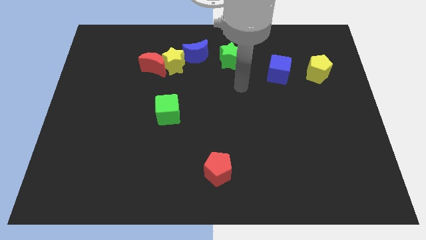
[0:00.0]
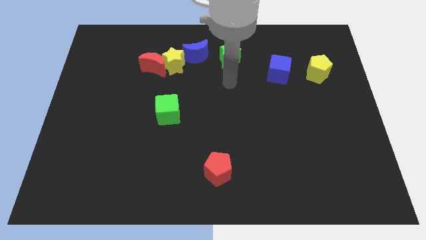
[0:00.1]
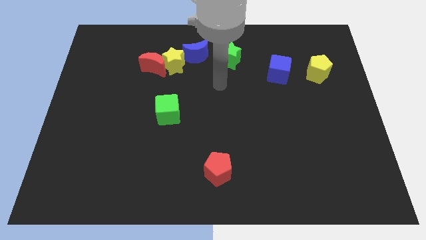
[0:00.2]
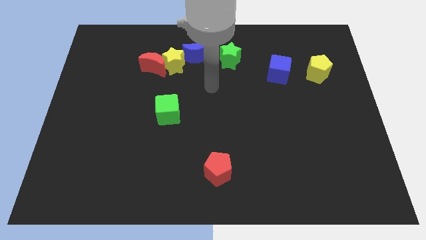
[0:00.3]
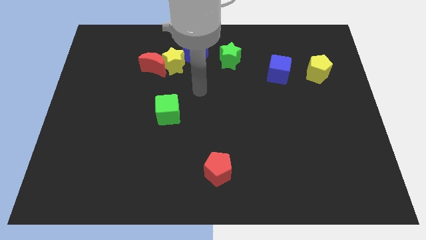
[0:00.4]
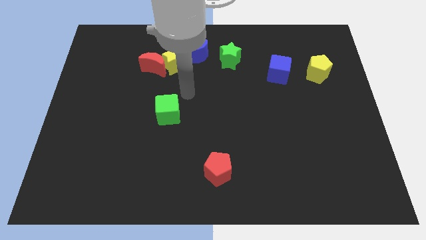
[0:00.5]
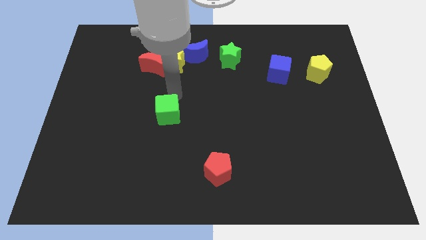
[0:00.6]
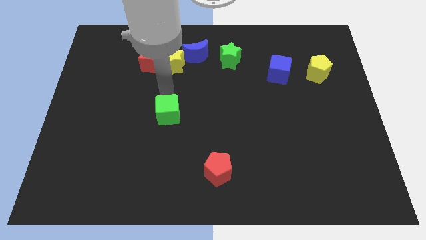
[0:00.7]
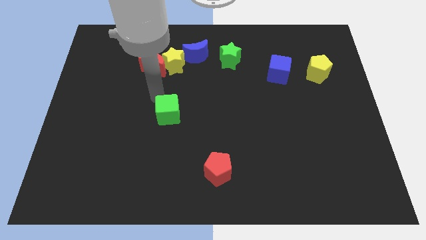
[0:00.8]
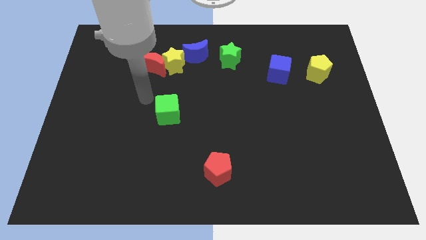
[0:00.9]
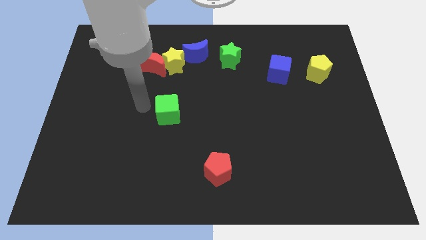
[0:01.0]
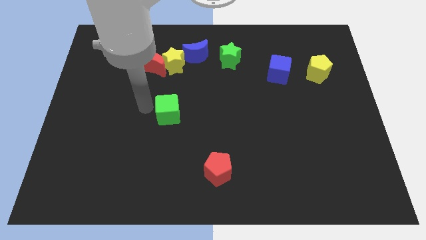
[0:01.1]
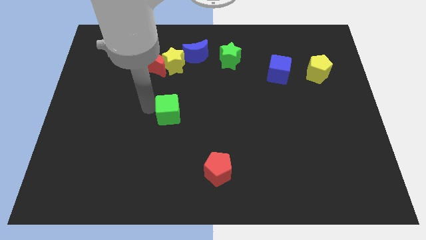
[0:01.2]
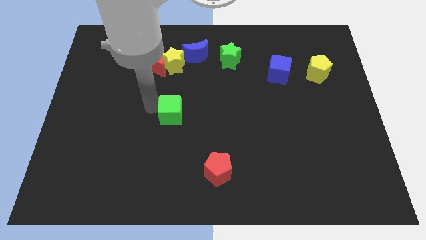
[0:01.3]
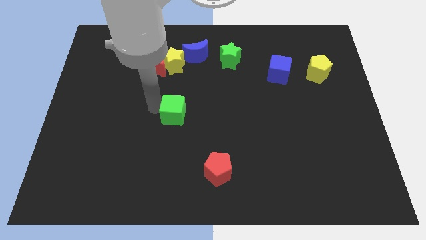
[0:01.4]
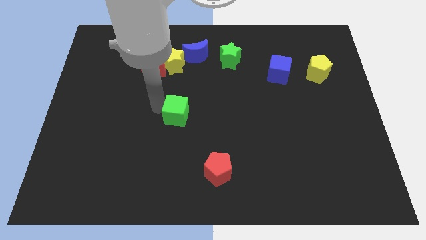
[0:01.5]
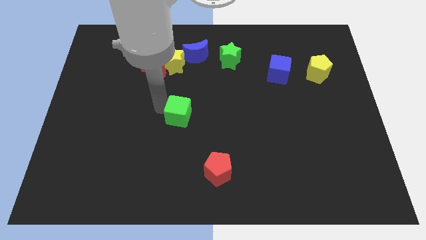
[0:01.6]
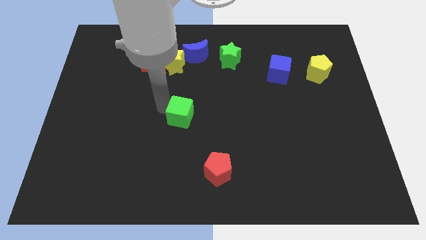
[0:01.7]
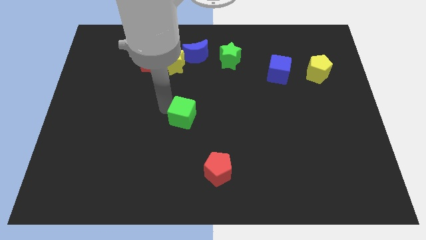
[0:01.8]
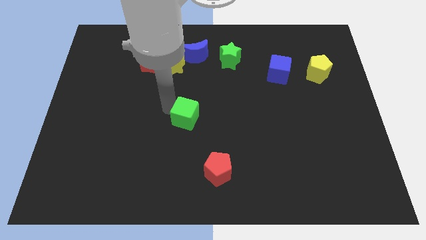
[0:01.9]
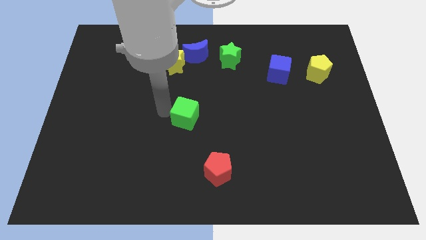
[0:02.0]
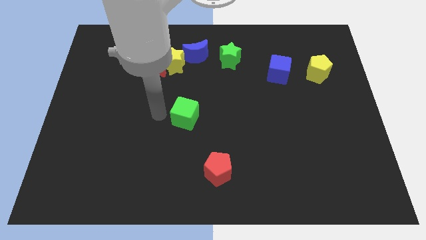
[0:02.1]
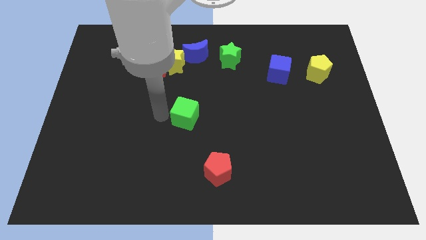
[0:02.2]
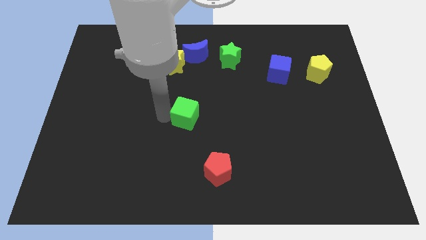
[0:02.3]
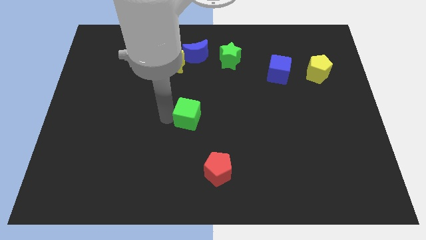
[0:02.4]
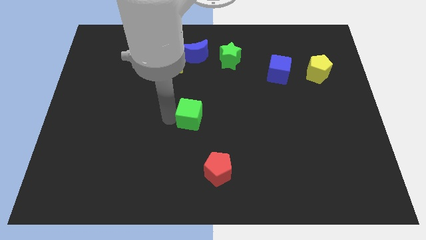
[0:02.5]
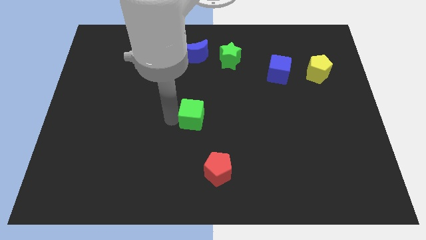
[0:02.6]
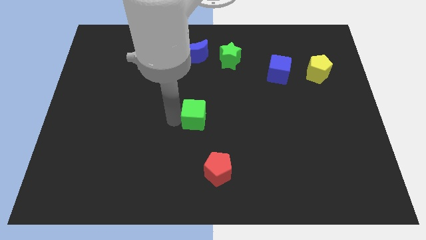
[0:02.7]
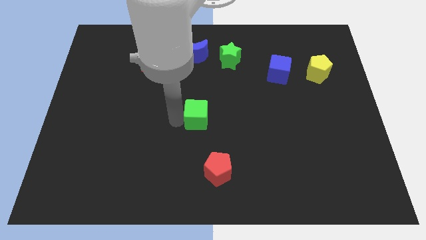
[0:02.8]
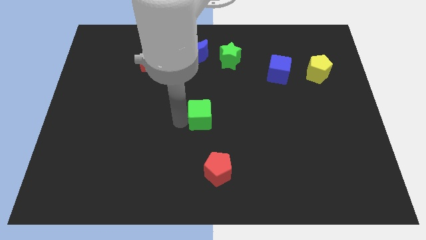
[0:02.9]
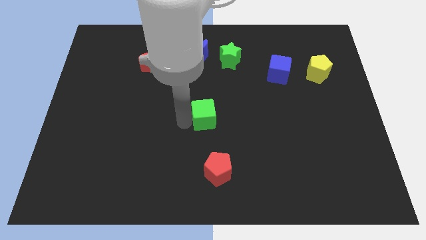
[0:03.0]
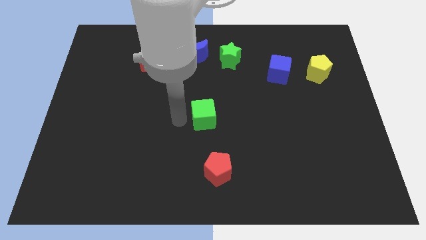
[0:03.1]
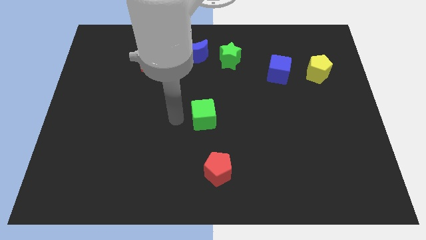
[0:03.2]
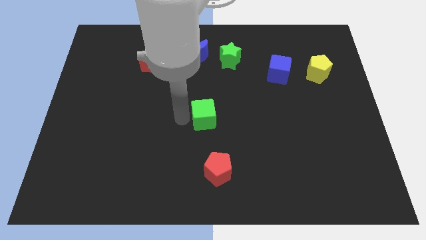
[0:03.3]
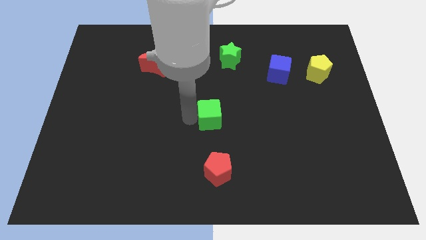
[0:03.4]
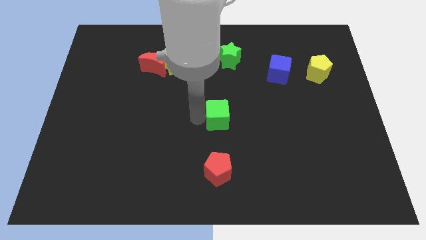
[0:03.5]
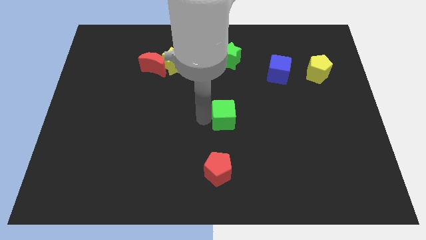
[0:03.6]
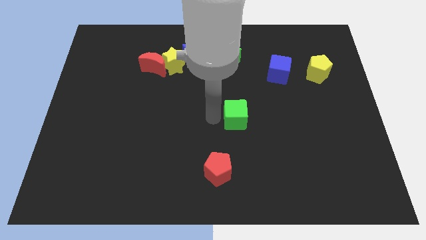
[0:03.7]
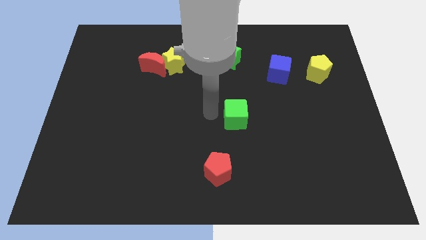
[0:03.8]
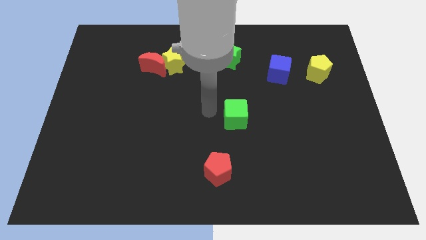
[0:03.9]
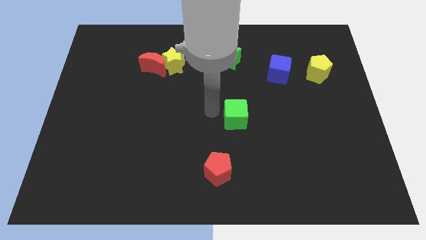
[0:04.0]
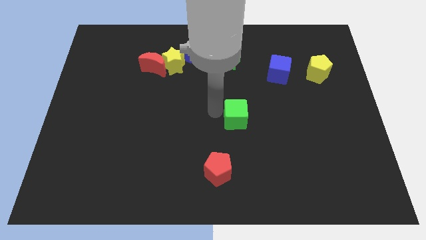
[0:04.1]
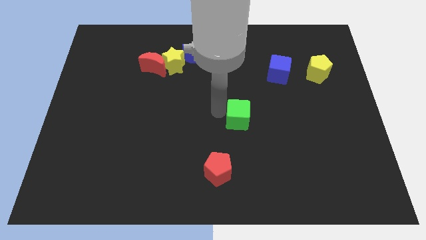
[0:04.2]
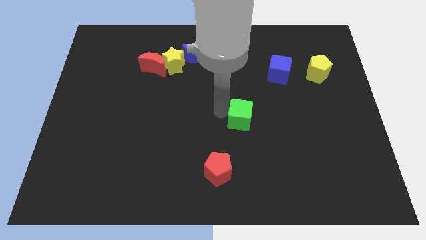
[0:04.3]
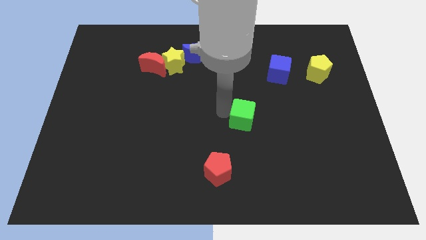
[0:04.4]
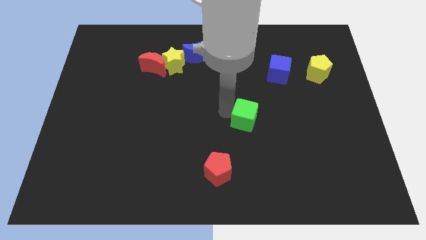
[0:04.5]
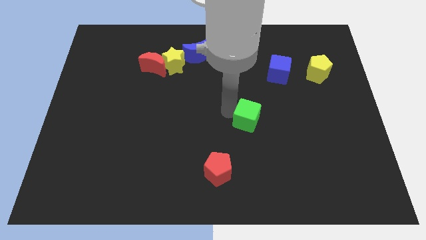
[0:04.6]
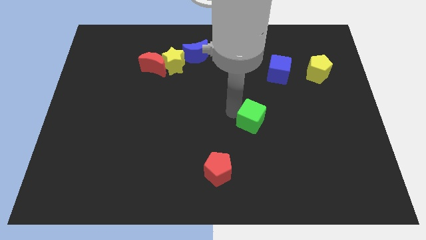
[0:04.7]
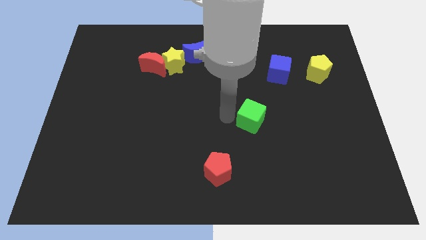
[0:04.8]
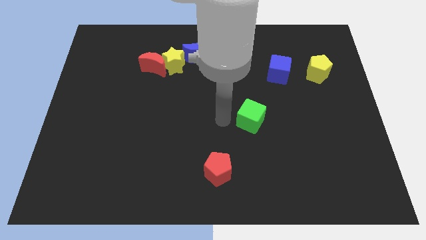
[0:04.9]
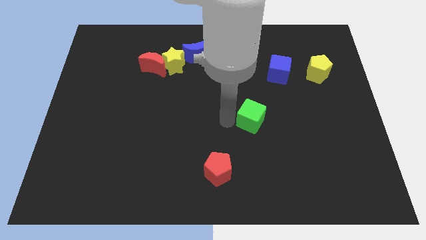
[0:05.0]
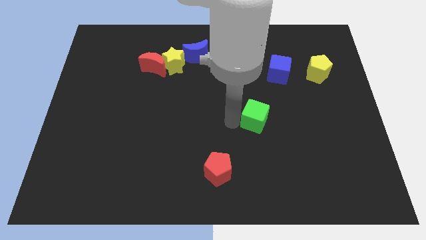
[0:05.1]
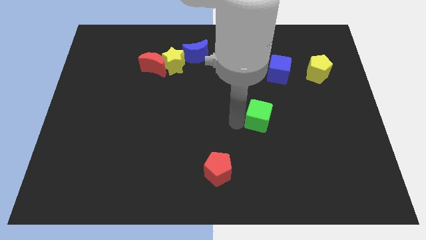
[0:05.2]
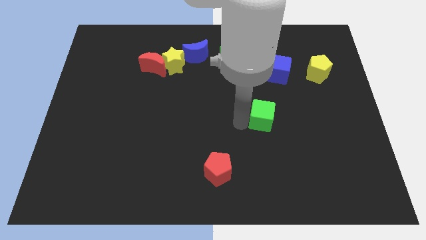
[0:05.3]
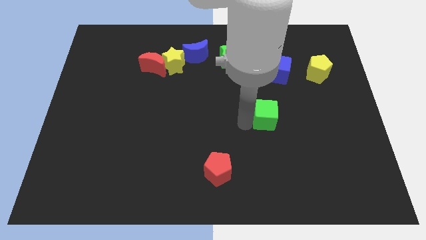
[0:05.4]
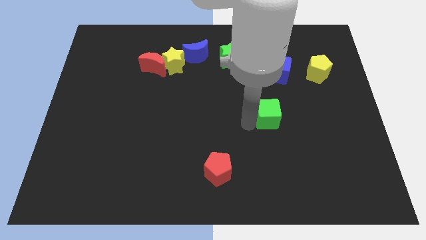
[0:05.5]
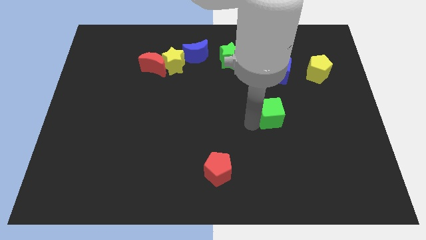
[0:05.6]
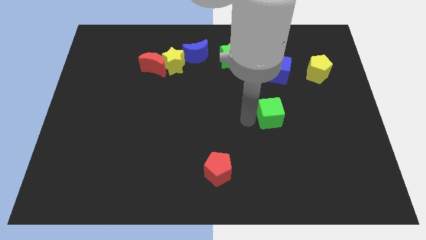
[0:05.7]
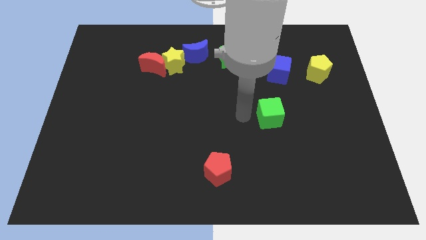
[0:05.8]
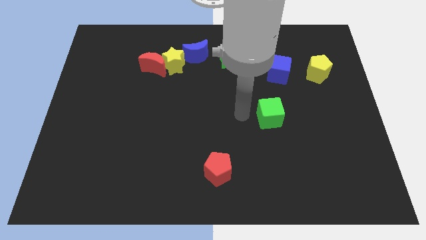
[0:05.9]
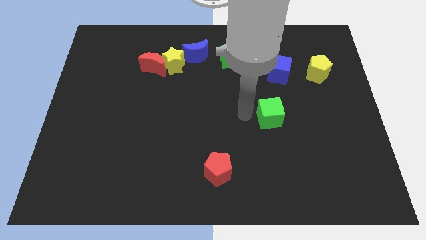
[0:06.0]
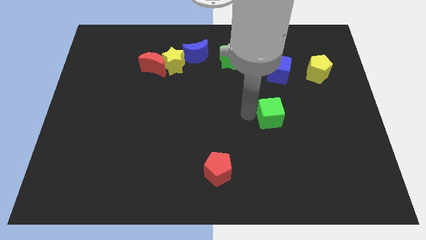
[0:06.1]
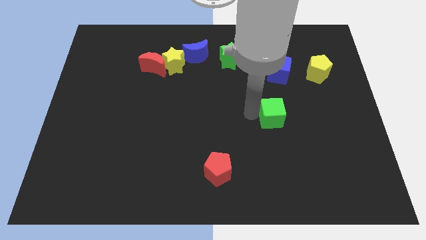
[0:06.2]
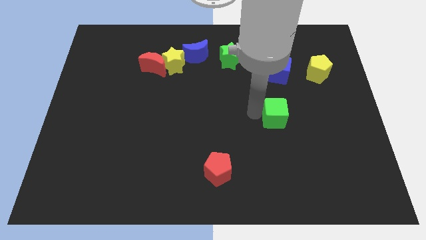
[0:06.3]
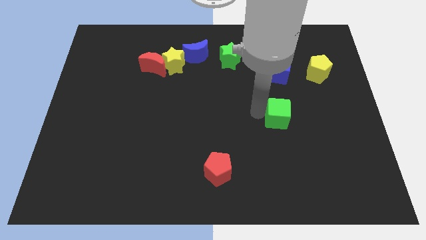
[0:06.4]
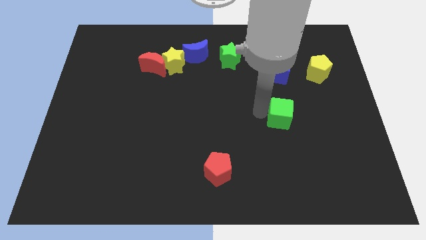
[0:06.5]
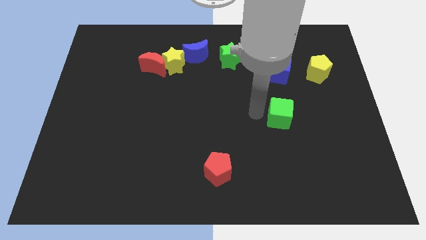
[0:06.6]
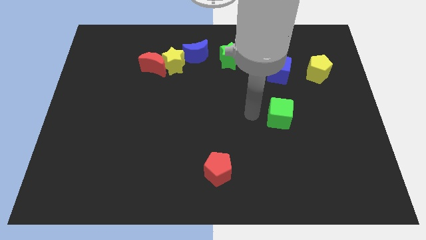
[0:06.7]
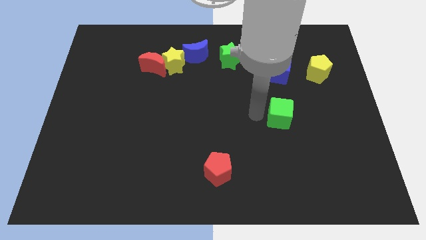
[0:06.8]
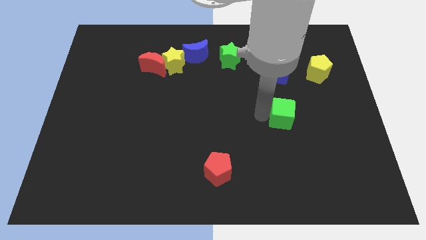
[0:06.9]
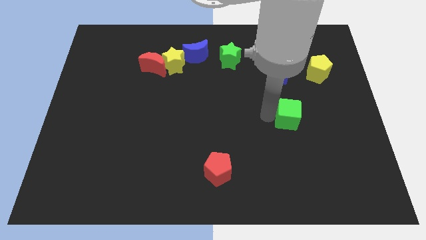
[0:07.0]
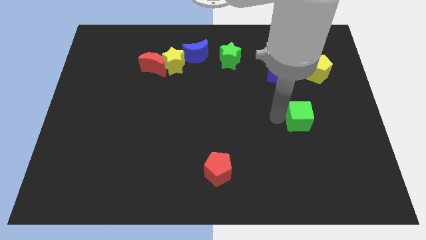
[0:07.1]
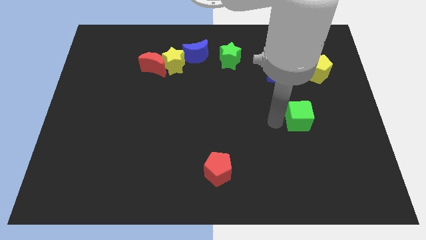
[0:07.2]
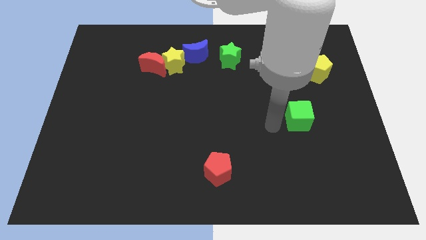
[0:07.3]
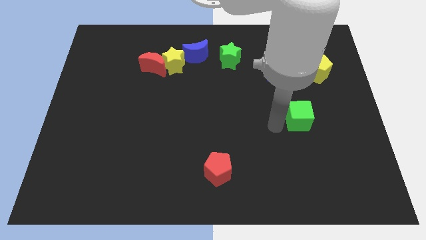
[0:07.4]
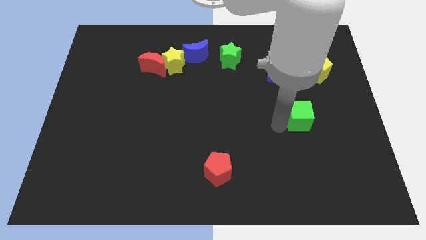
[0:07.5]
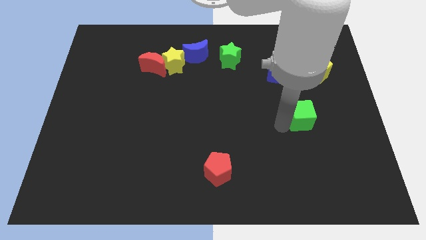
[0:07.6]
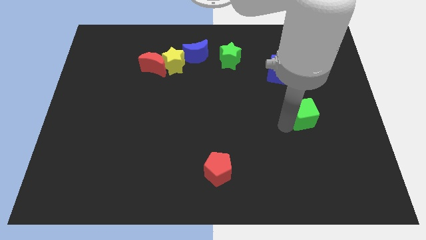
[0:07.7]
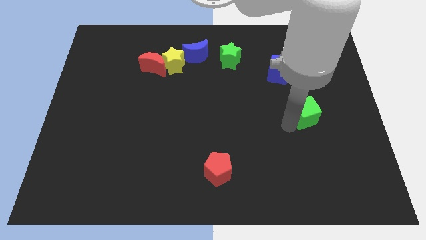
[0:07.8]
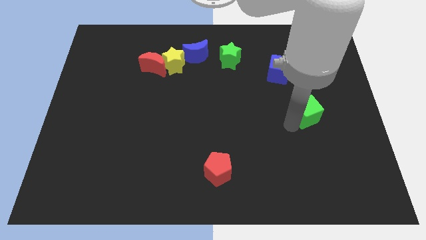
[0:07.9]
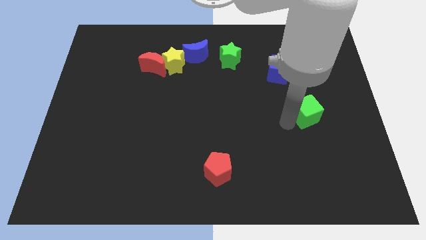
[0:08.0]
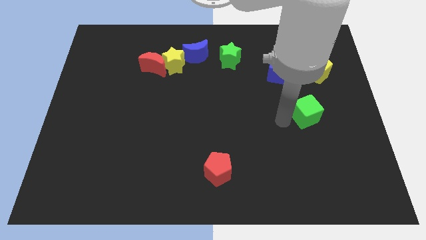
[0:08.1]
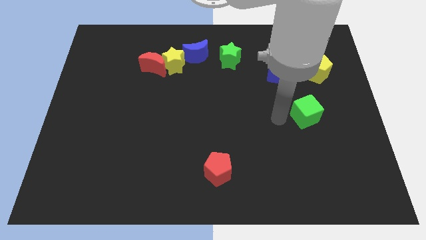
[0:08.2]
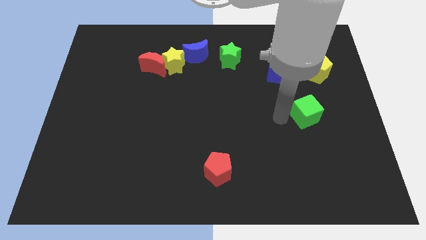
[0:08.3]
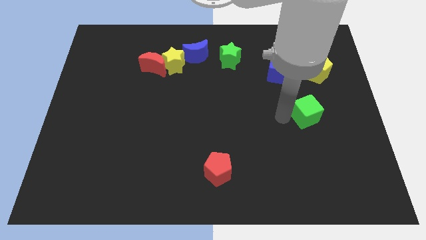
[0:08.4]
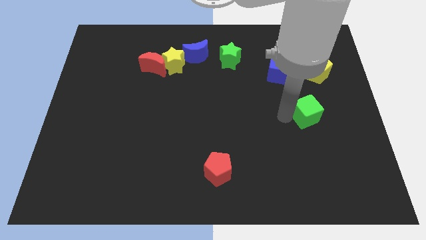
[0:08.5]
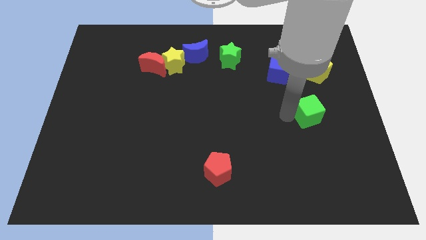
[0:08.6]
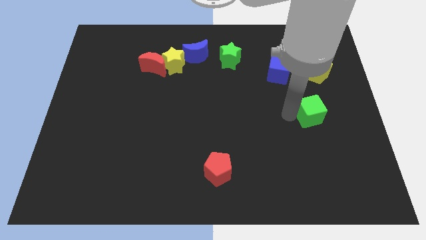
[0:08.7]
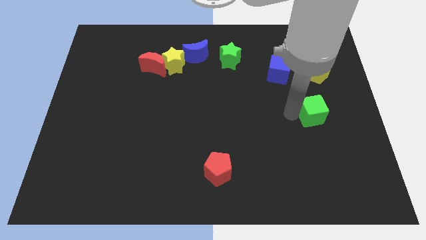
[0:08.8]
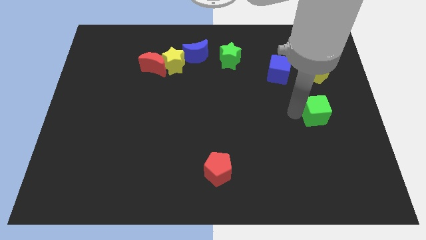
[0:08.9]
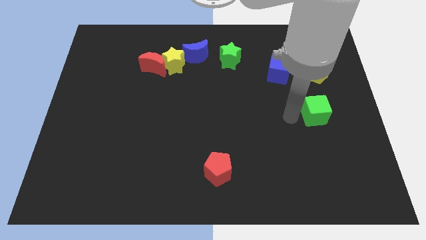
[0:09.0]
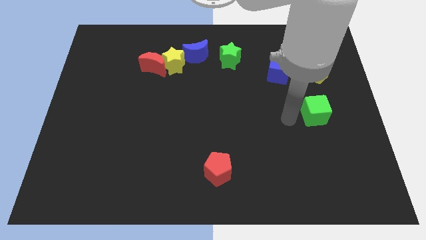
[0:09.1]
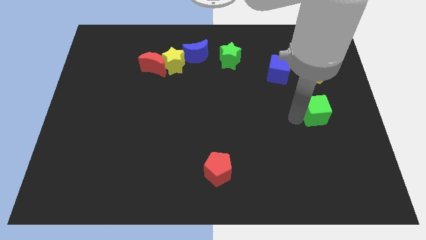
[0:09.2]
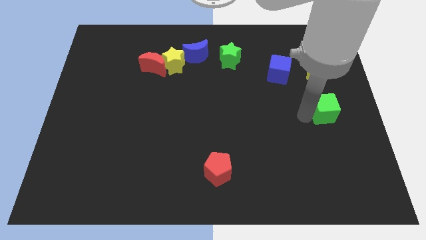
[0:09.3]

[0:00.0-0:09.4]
push the green cube to the right side
